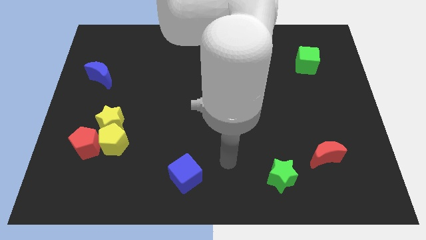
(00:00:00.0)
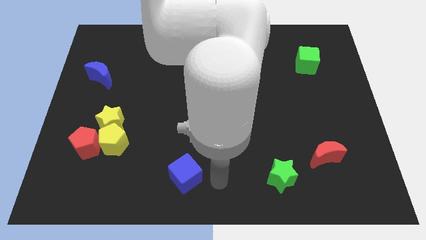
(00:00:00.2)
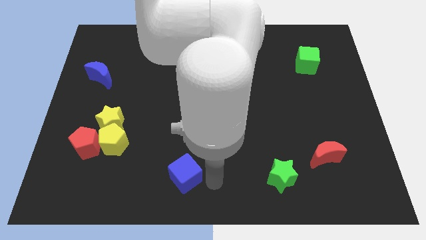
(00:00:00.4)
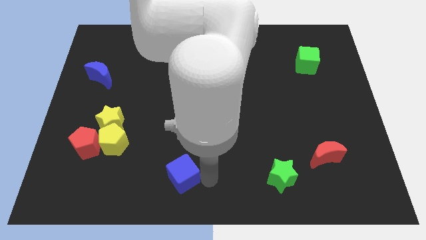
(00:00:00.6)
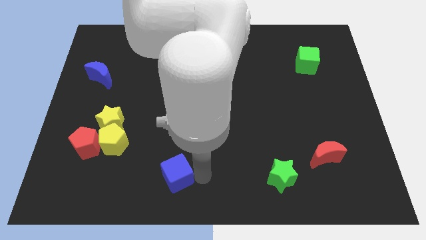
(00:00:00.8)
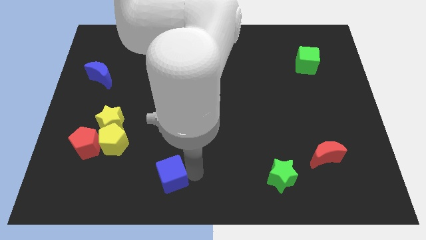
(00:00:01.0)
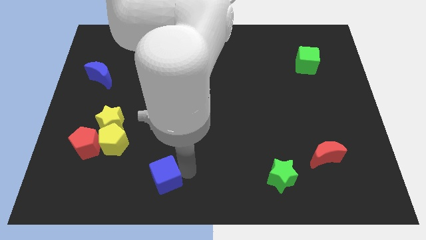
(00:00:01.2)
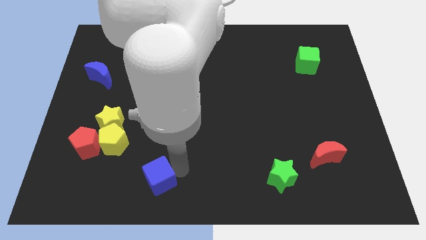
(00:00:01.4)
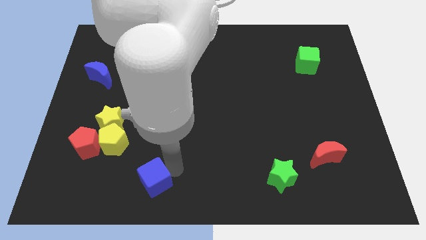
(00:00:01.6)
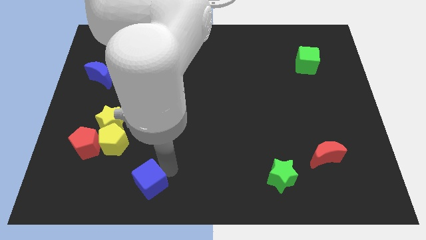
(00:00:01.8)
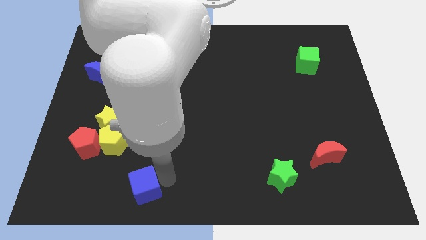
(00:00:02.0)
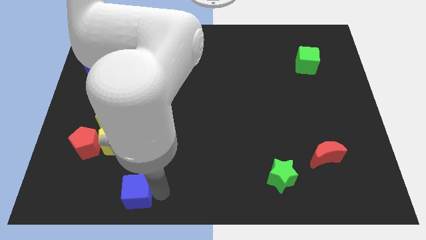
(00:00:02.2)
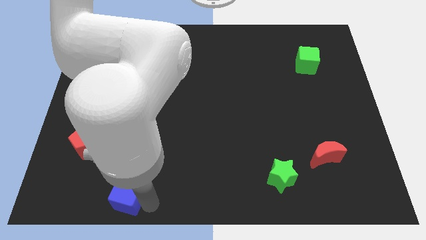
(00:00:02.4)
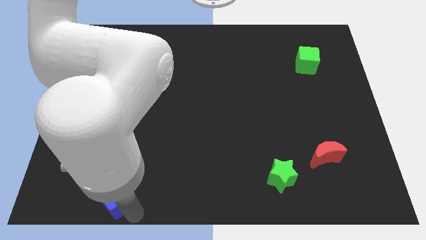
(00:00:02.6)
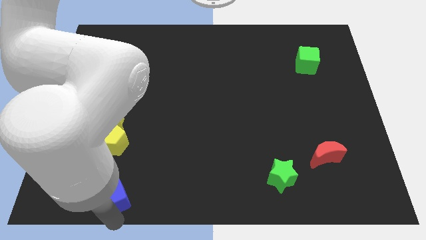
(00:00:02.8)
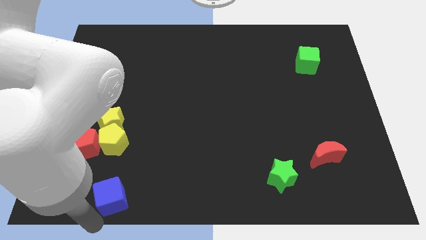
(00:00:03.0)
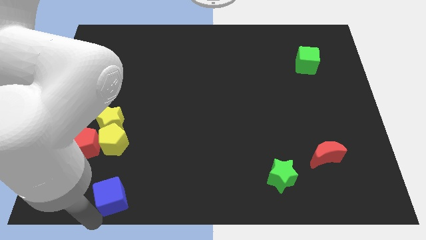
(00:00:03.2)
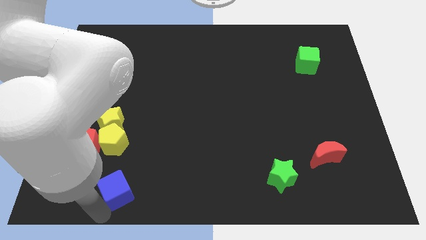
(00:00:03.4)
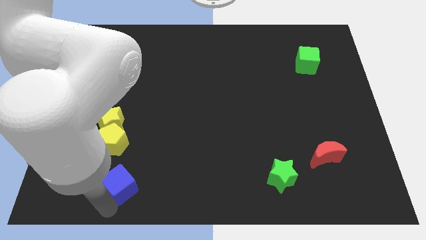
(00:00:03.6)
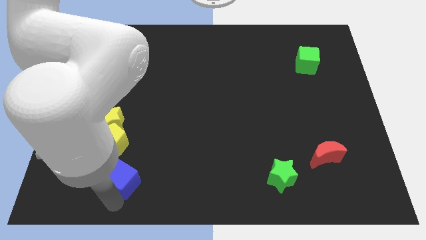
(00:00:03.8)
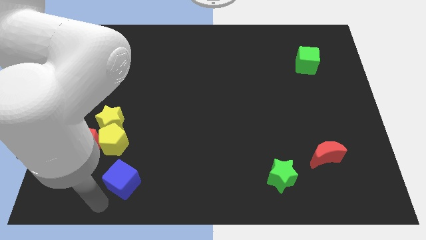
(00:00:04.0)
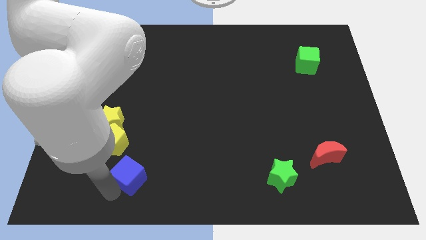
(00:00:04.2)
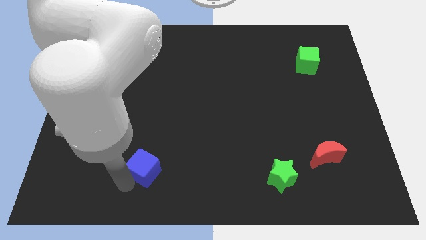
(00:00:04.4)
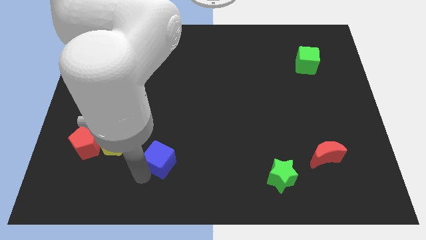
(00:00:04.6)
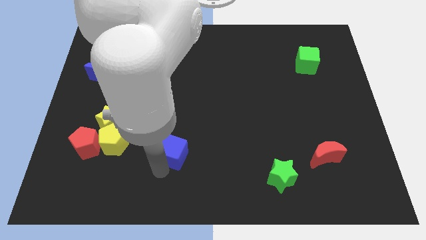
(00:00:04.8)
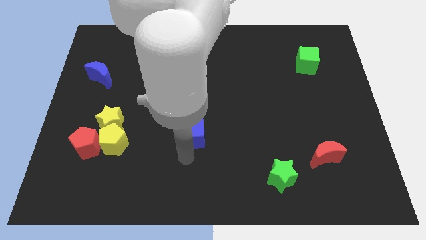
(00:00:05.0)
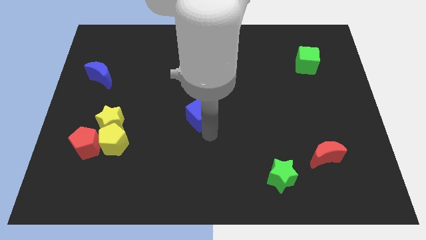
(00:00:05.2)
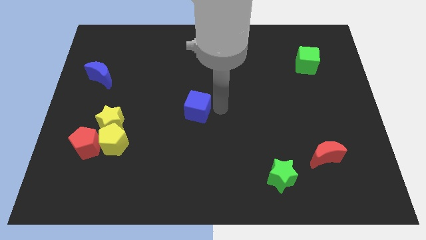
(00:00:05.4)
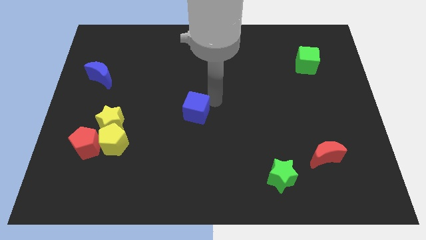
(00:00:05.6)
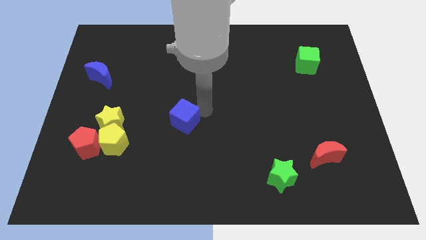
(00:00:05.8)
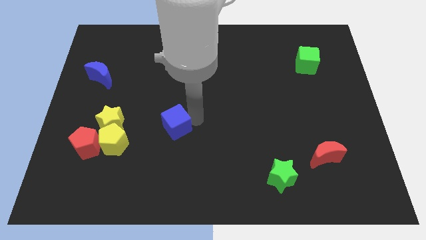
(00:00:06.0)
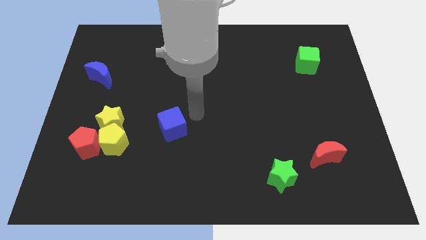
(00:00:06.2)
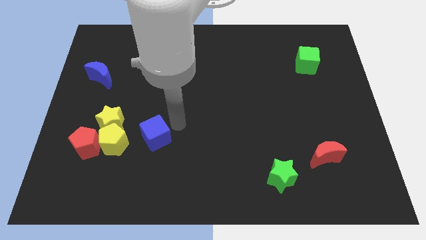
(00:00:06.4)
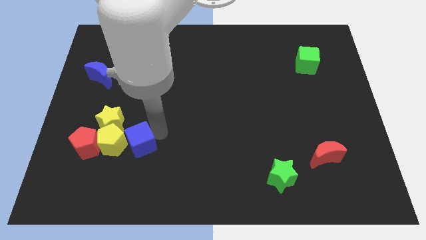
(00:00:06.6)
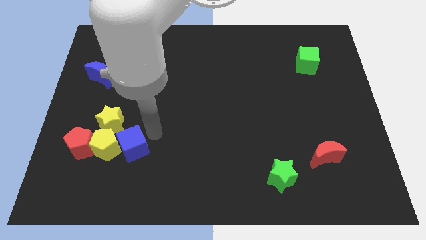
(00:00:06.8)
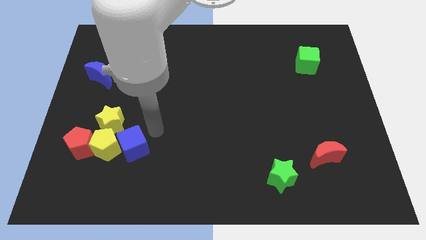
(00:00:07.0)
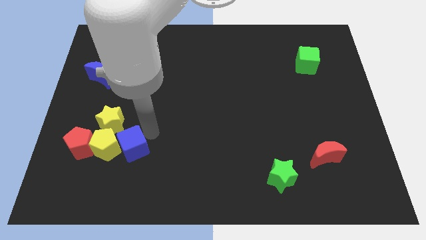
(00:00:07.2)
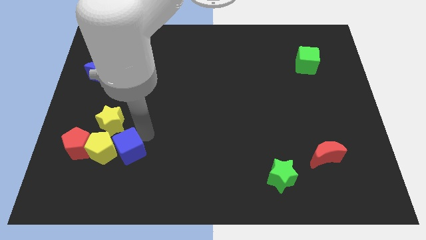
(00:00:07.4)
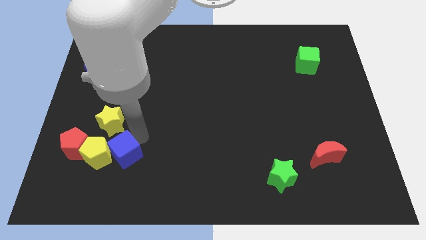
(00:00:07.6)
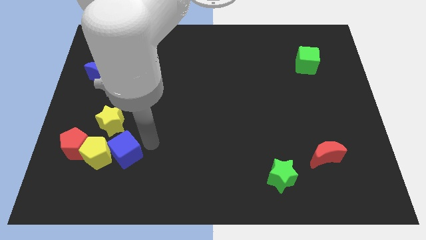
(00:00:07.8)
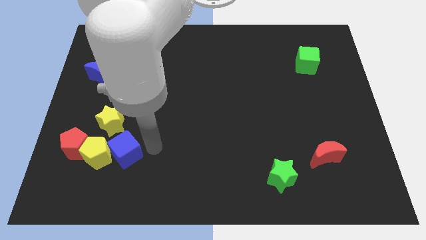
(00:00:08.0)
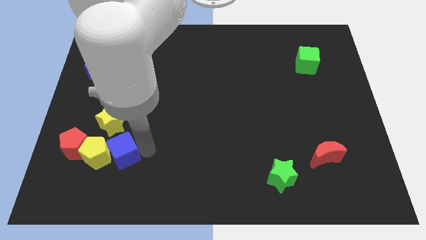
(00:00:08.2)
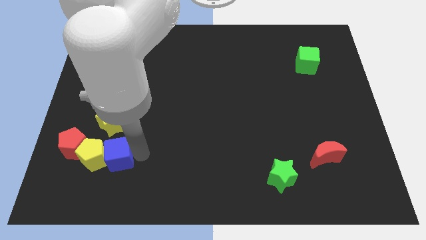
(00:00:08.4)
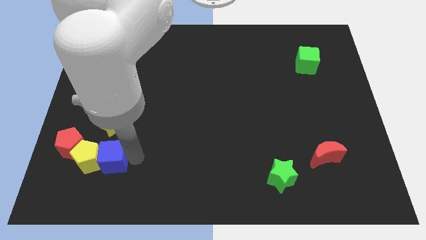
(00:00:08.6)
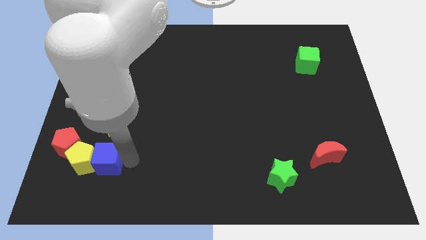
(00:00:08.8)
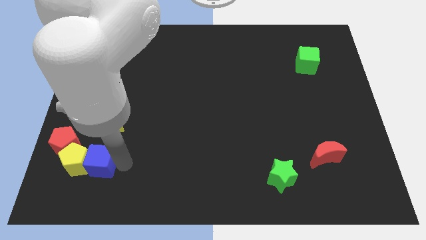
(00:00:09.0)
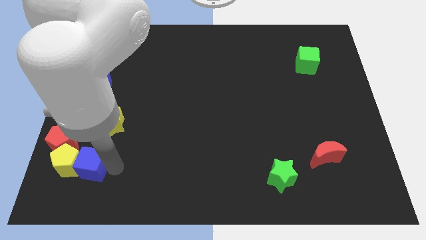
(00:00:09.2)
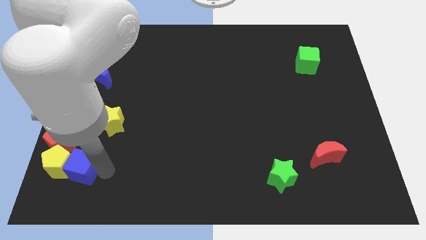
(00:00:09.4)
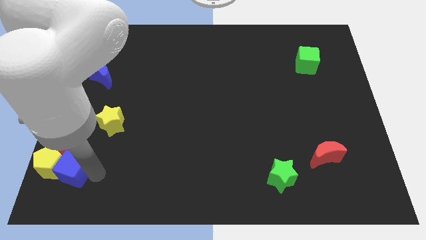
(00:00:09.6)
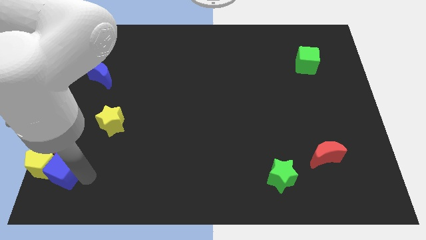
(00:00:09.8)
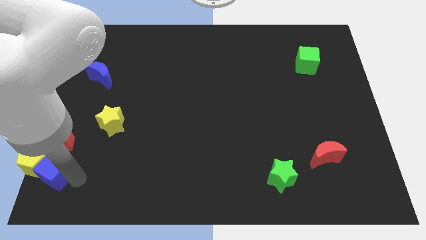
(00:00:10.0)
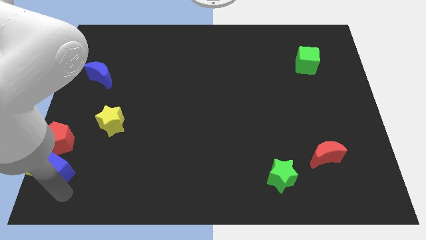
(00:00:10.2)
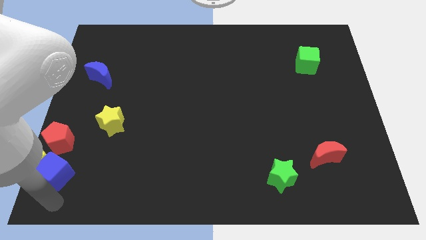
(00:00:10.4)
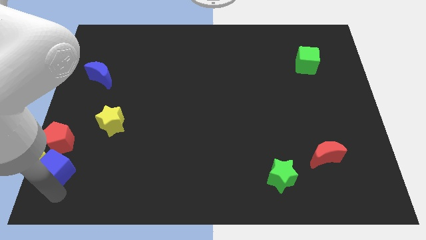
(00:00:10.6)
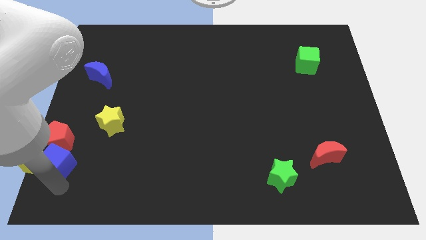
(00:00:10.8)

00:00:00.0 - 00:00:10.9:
move the blue cube towards the red pentagon

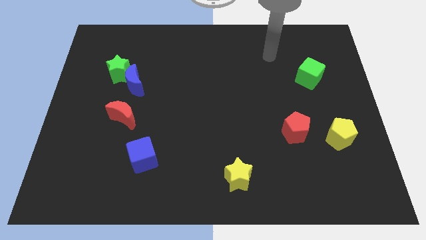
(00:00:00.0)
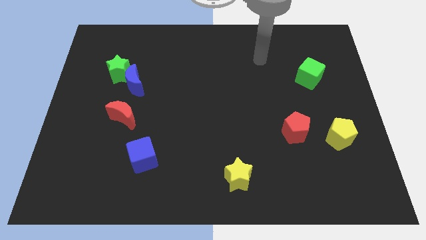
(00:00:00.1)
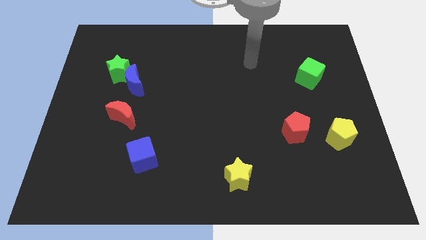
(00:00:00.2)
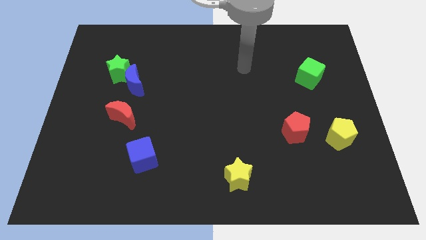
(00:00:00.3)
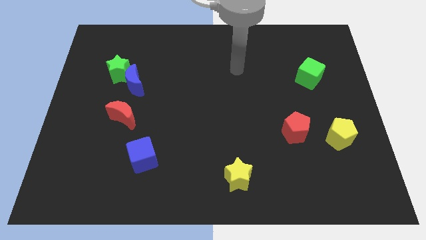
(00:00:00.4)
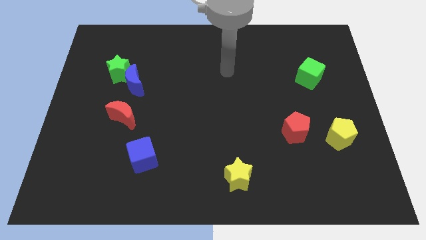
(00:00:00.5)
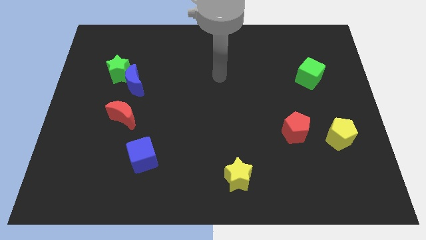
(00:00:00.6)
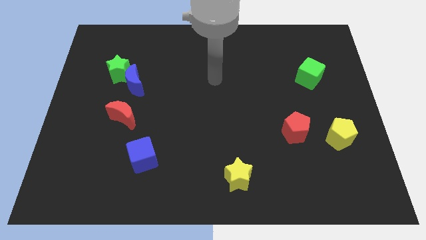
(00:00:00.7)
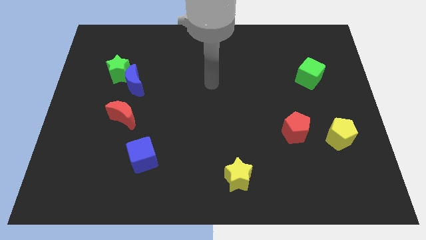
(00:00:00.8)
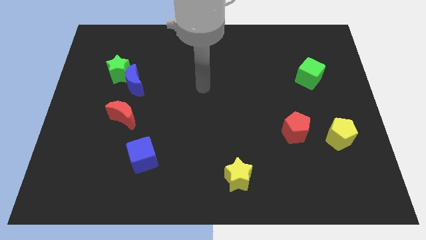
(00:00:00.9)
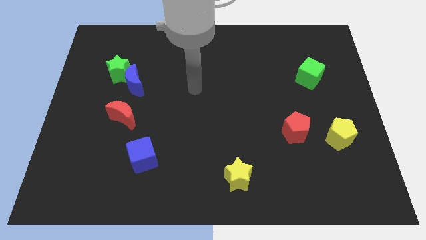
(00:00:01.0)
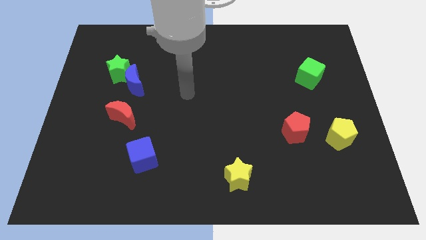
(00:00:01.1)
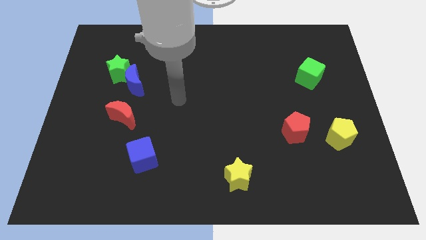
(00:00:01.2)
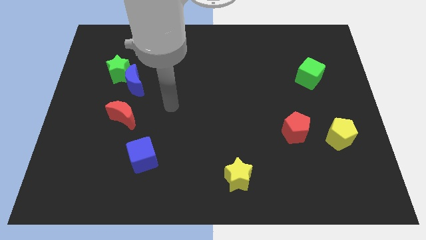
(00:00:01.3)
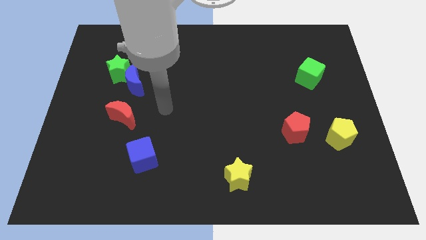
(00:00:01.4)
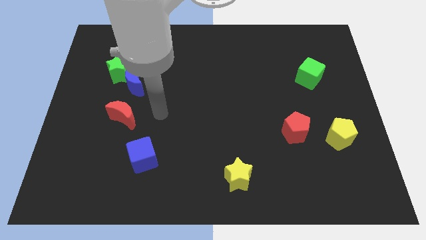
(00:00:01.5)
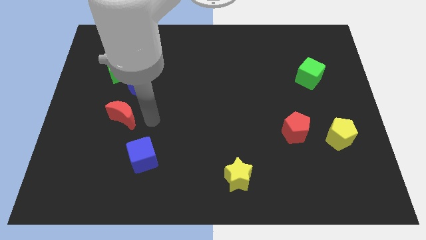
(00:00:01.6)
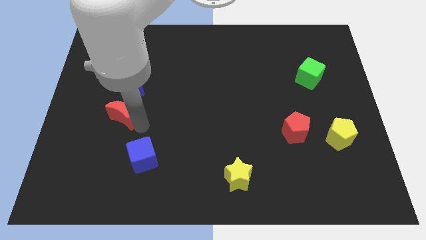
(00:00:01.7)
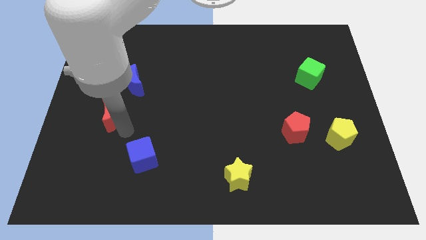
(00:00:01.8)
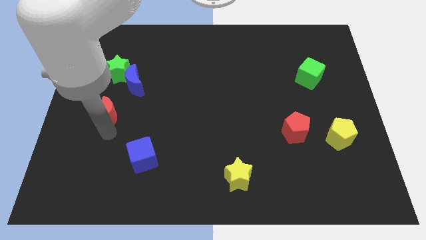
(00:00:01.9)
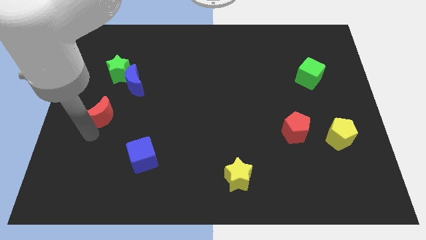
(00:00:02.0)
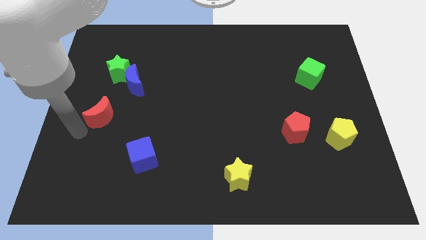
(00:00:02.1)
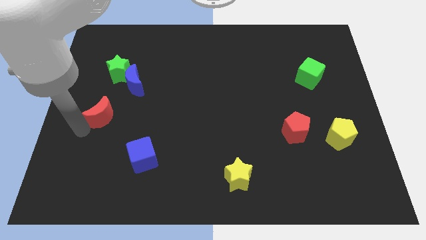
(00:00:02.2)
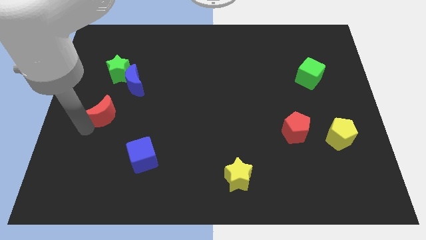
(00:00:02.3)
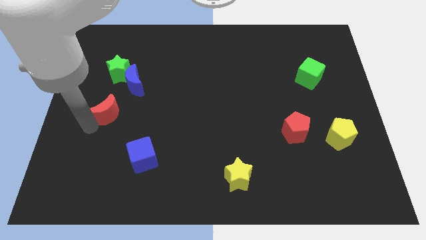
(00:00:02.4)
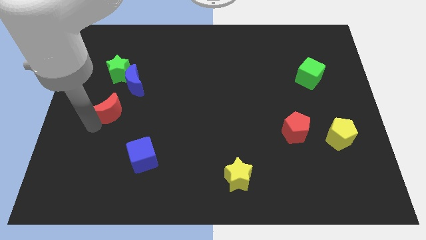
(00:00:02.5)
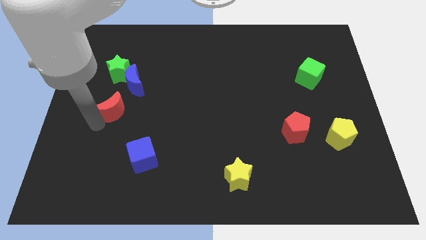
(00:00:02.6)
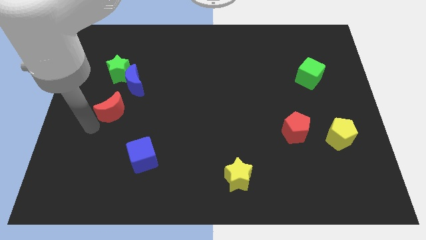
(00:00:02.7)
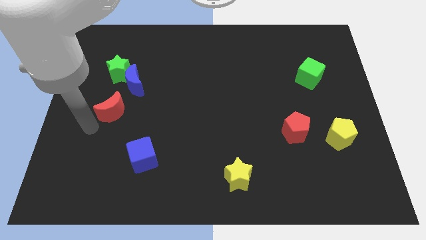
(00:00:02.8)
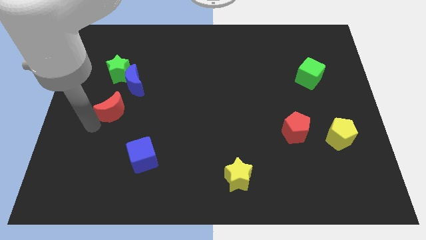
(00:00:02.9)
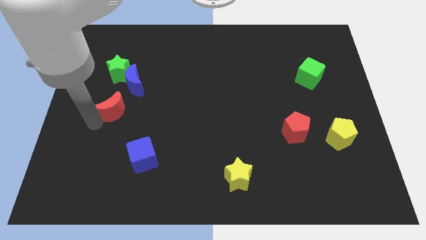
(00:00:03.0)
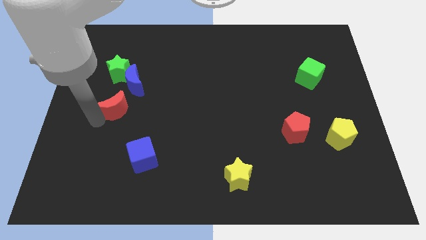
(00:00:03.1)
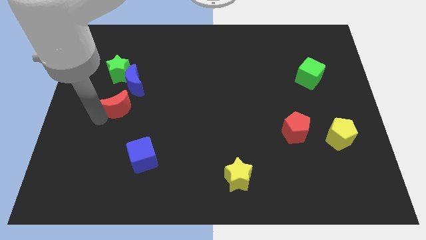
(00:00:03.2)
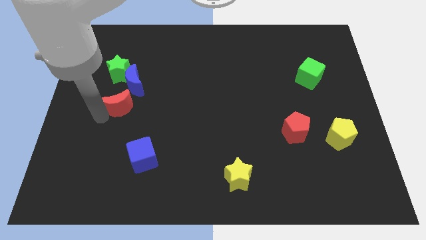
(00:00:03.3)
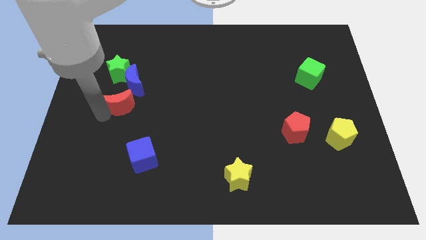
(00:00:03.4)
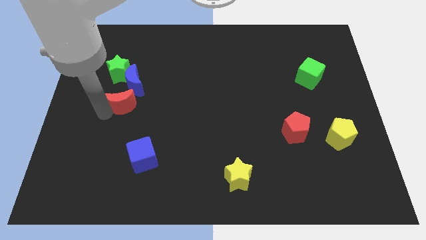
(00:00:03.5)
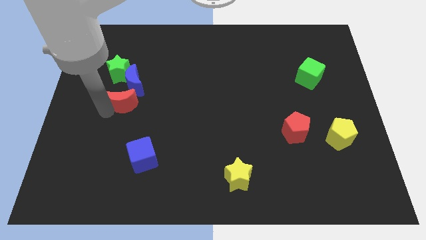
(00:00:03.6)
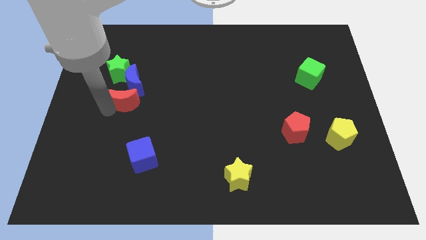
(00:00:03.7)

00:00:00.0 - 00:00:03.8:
push the red moon next to the blue moon
